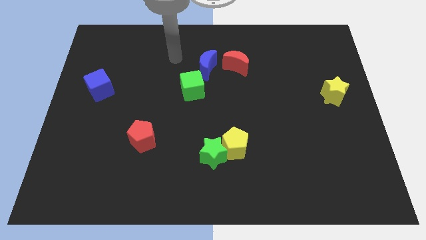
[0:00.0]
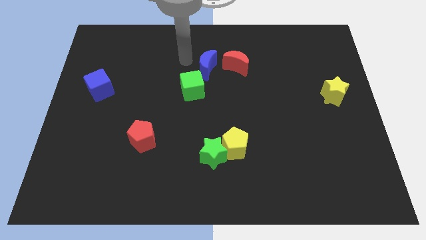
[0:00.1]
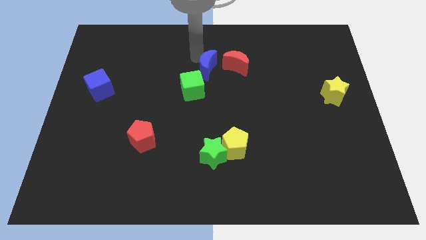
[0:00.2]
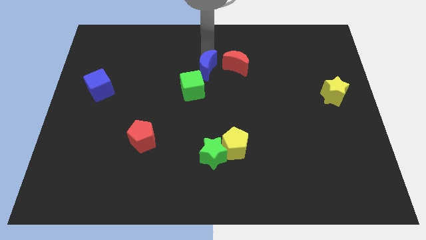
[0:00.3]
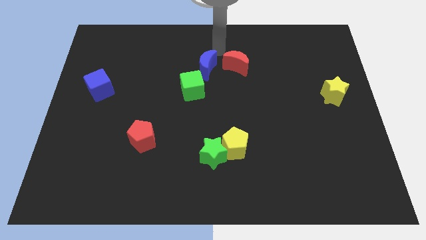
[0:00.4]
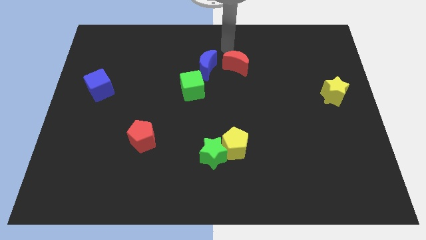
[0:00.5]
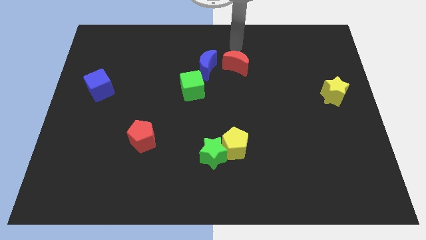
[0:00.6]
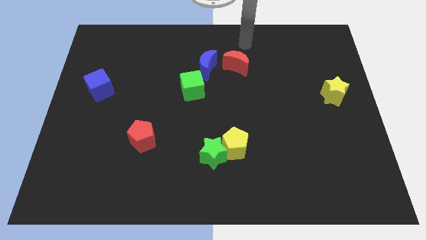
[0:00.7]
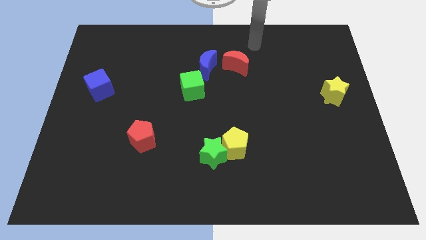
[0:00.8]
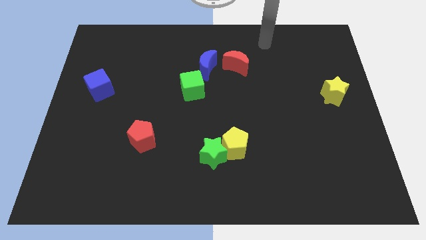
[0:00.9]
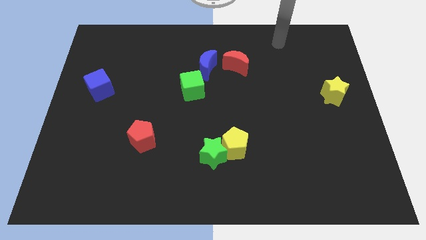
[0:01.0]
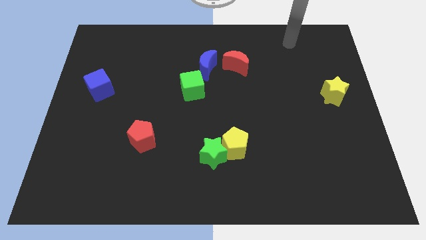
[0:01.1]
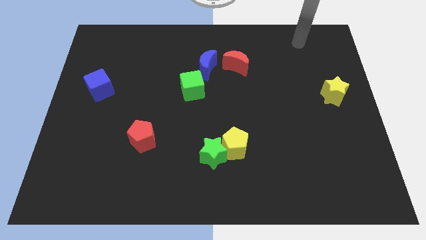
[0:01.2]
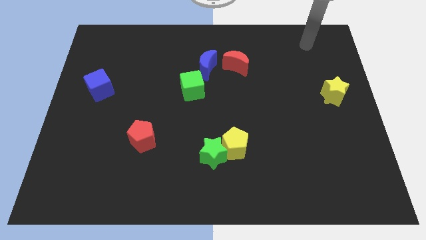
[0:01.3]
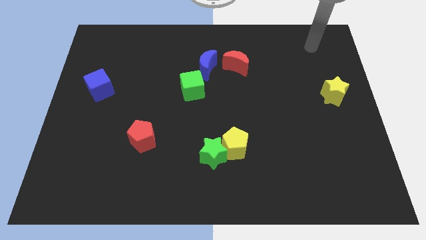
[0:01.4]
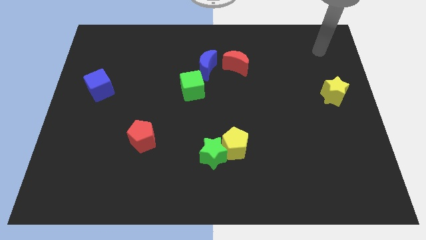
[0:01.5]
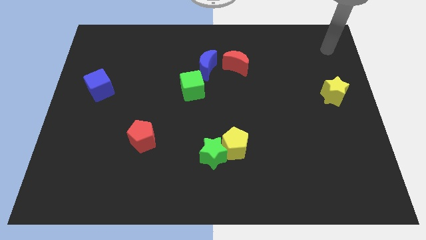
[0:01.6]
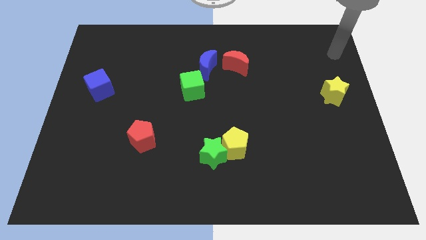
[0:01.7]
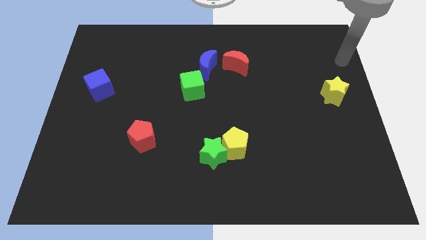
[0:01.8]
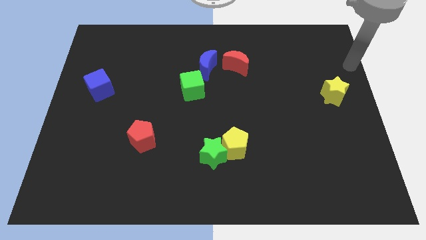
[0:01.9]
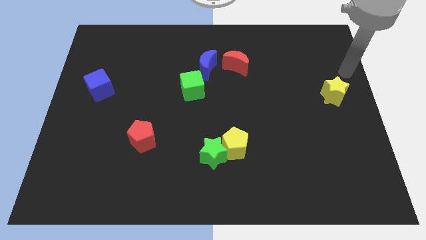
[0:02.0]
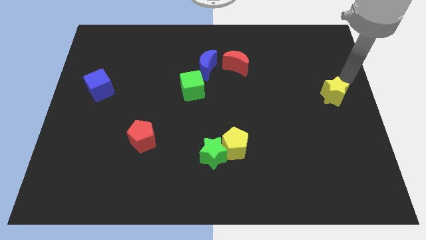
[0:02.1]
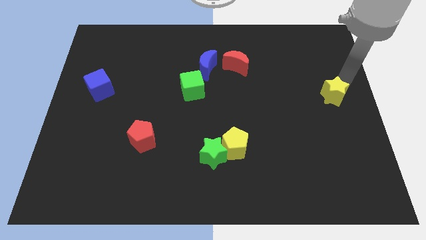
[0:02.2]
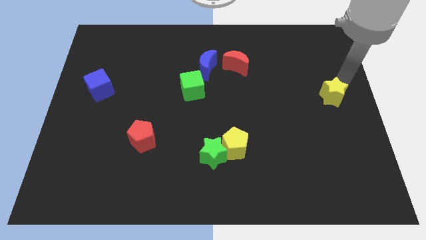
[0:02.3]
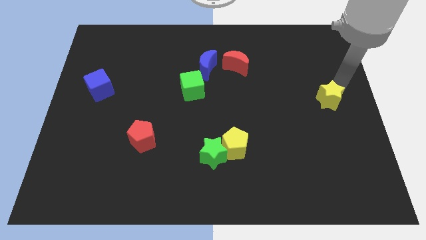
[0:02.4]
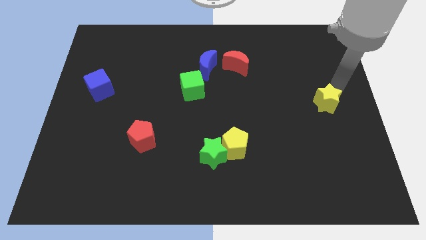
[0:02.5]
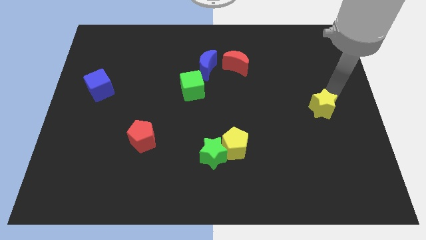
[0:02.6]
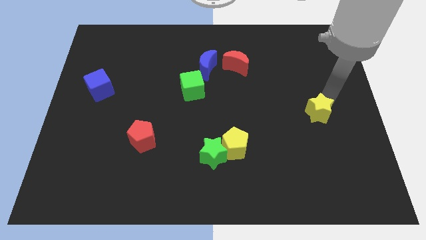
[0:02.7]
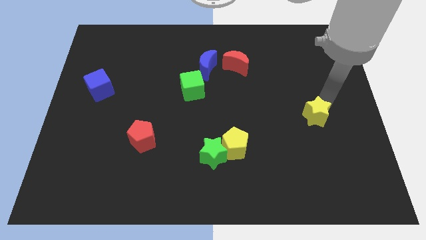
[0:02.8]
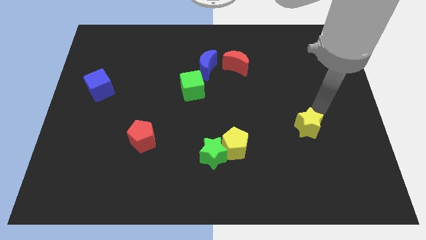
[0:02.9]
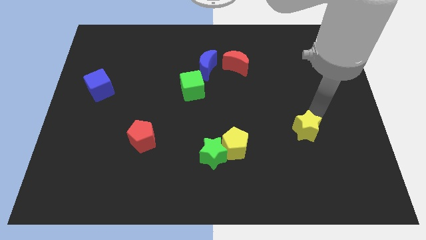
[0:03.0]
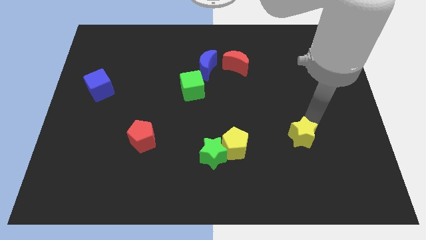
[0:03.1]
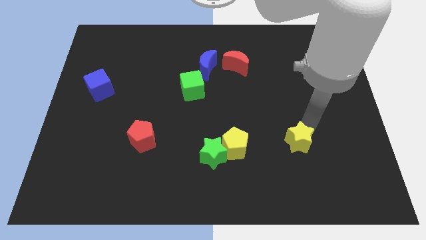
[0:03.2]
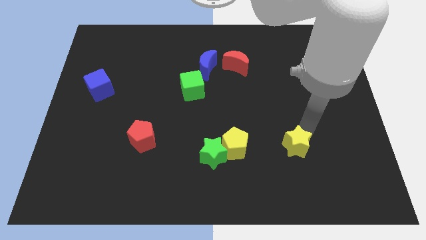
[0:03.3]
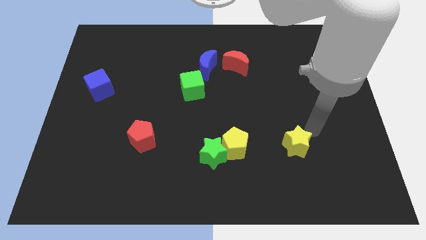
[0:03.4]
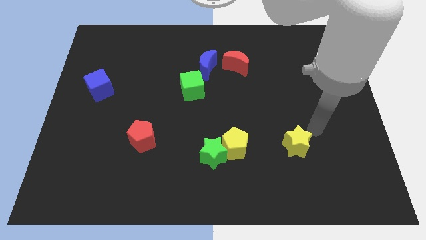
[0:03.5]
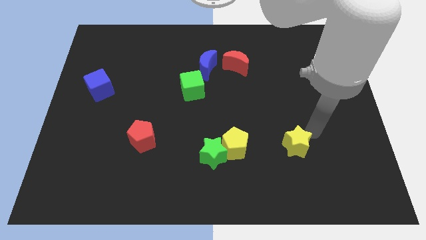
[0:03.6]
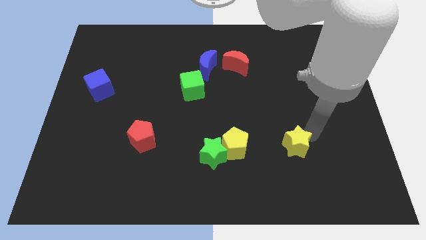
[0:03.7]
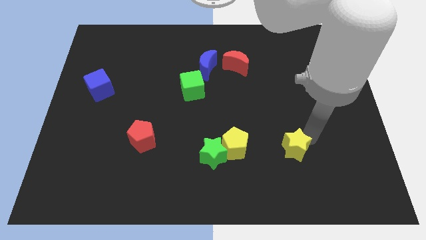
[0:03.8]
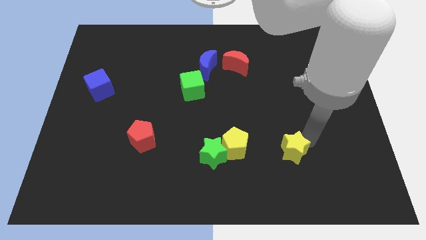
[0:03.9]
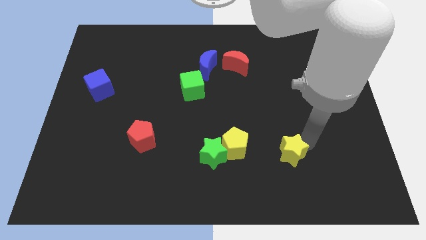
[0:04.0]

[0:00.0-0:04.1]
push the yellow star down and then left

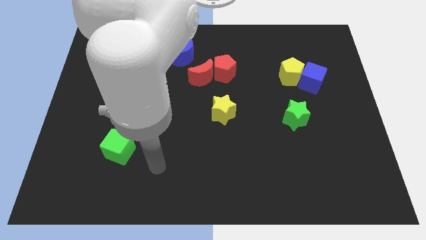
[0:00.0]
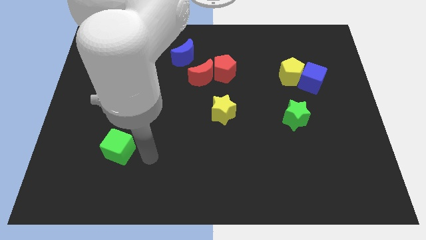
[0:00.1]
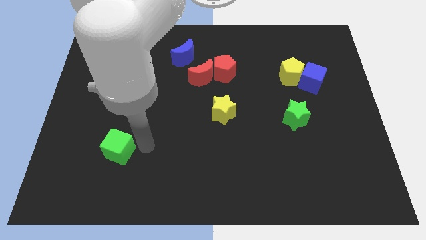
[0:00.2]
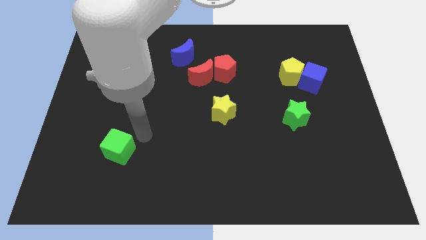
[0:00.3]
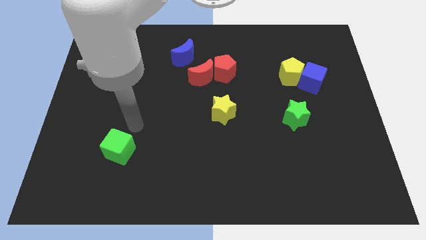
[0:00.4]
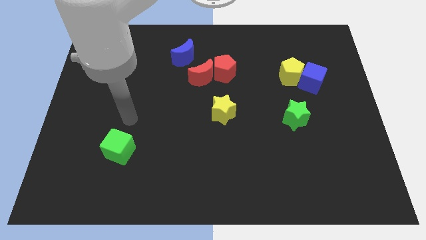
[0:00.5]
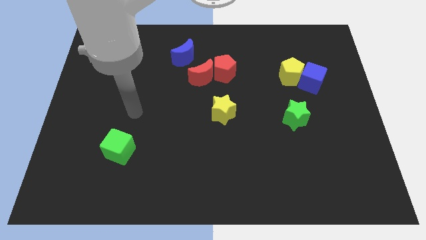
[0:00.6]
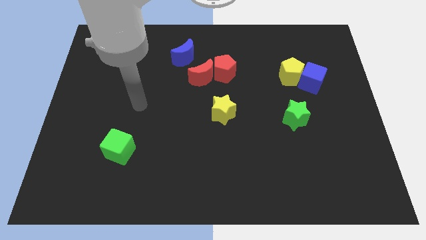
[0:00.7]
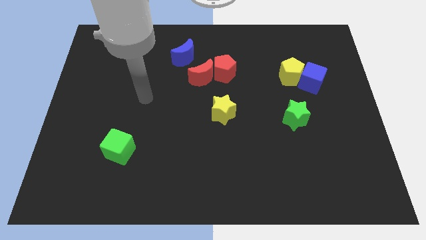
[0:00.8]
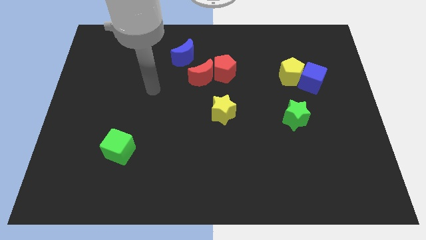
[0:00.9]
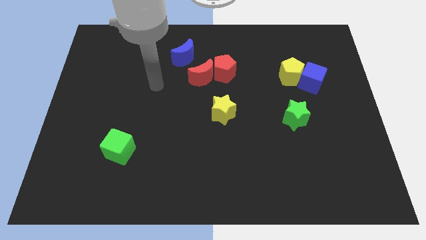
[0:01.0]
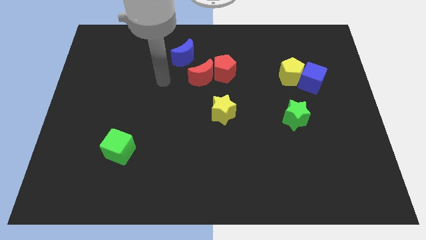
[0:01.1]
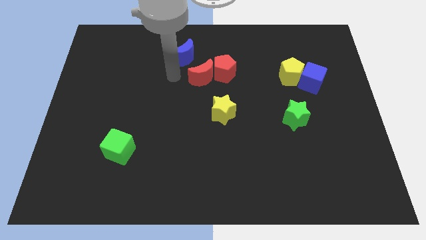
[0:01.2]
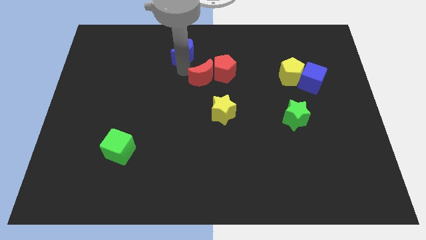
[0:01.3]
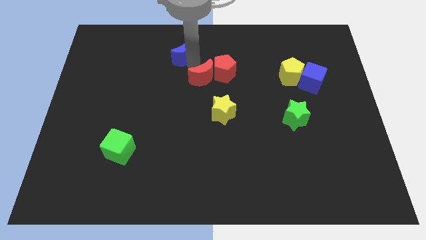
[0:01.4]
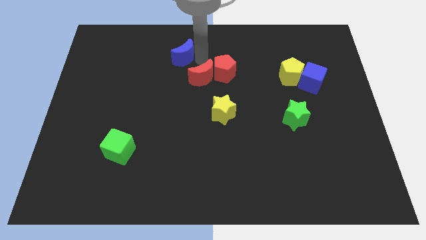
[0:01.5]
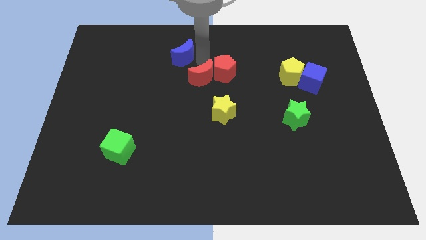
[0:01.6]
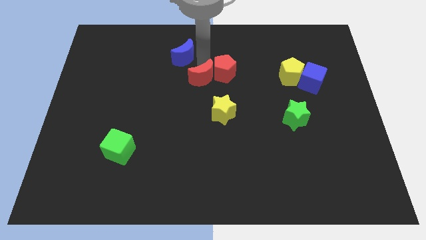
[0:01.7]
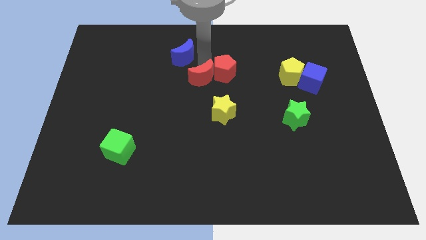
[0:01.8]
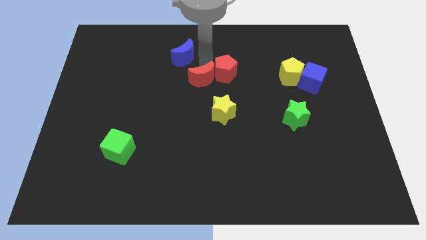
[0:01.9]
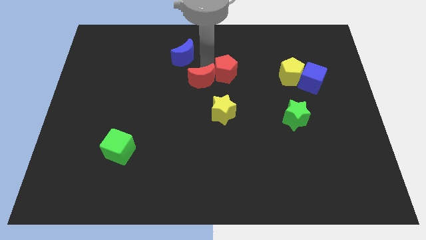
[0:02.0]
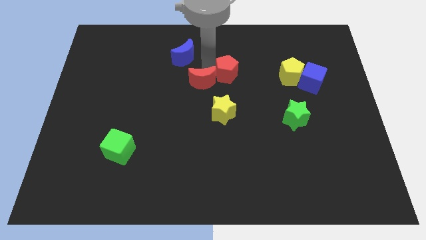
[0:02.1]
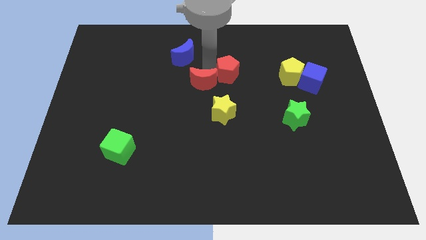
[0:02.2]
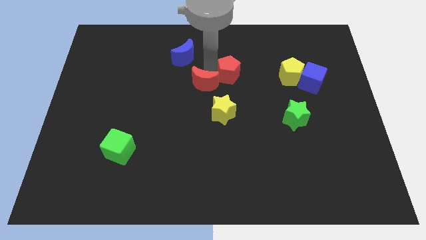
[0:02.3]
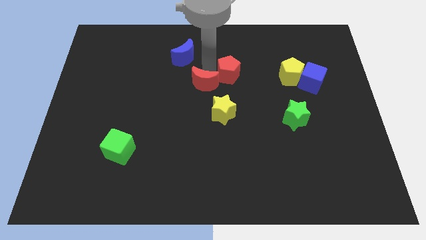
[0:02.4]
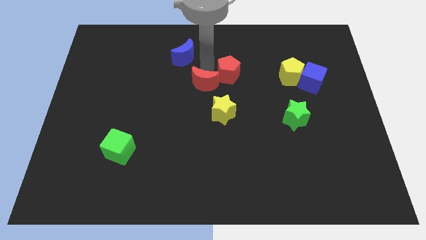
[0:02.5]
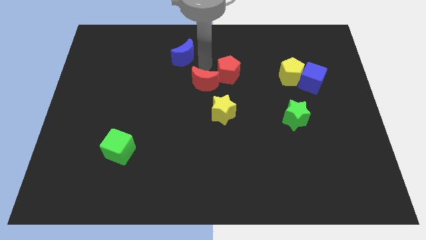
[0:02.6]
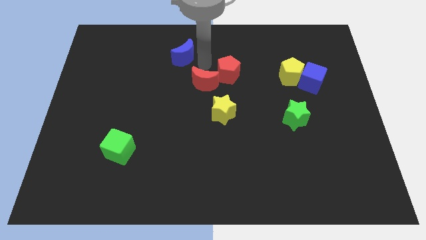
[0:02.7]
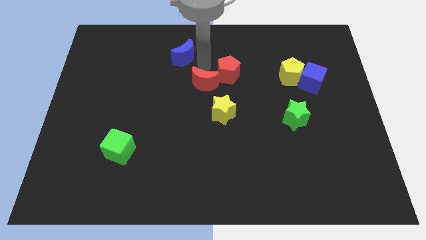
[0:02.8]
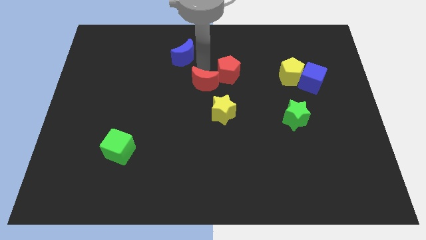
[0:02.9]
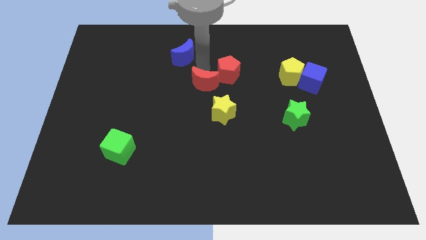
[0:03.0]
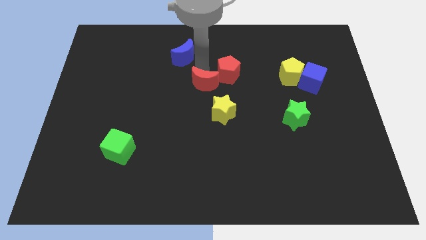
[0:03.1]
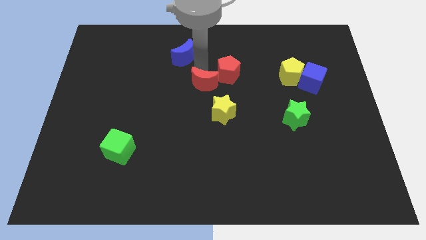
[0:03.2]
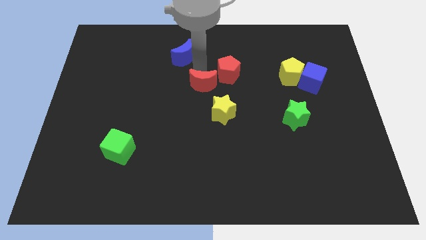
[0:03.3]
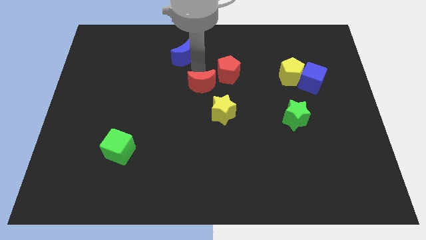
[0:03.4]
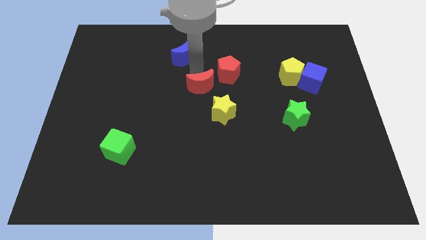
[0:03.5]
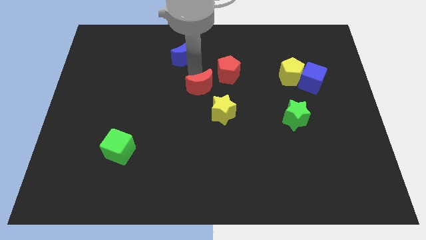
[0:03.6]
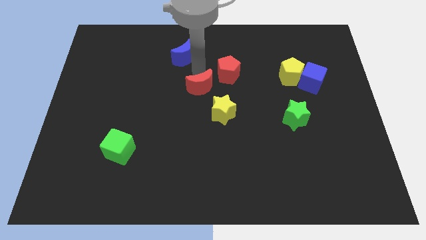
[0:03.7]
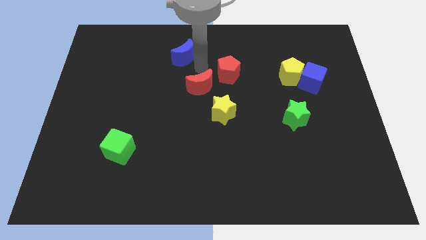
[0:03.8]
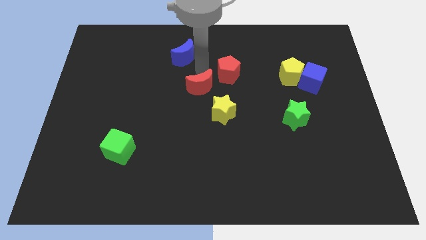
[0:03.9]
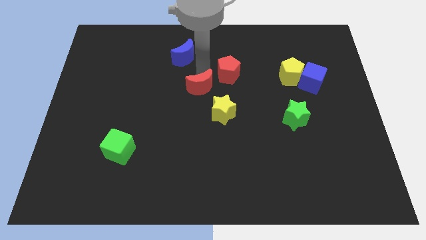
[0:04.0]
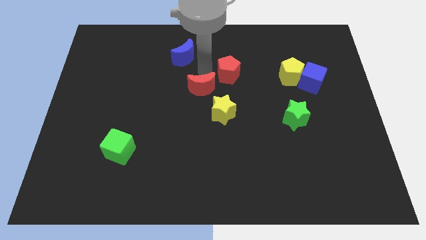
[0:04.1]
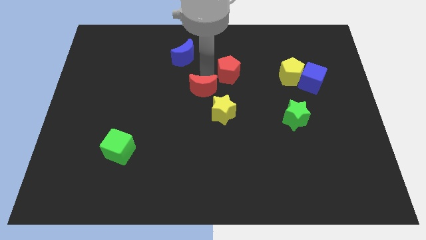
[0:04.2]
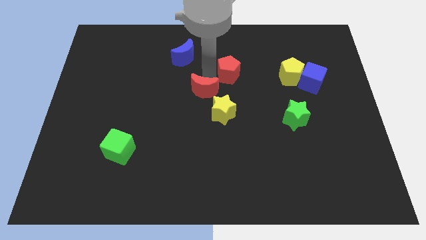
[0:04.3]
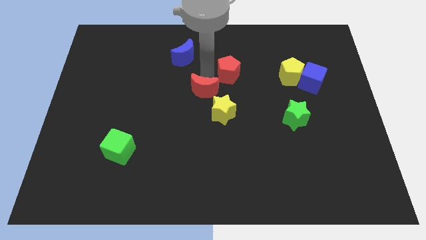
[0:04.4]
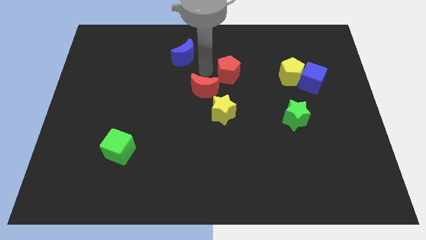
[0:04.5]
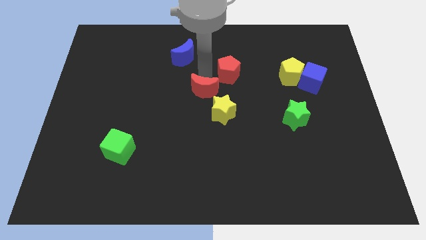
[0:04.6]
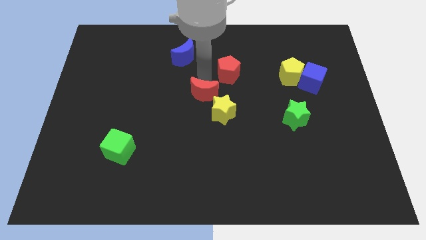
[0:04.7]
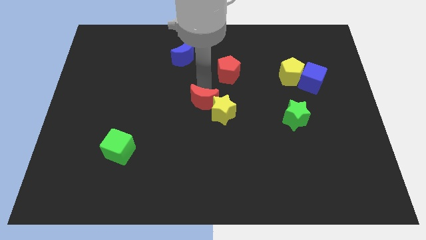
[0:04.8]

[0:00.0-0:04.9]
move the red moon somewhat downwards
